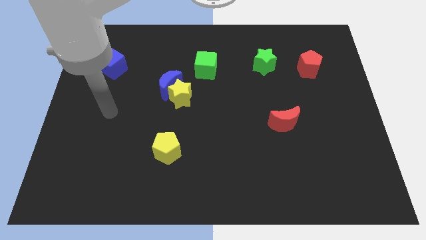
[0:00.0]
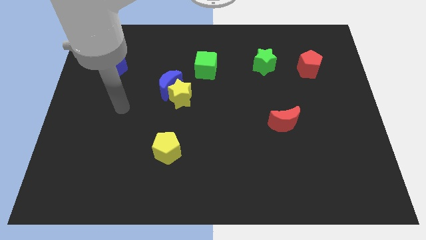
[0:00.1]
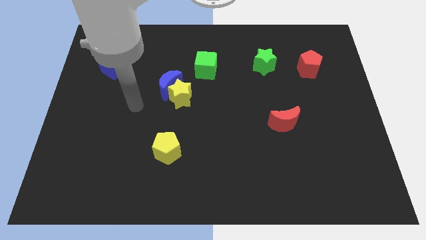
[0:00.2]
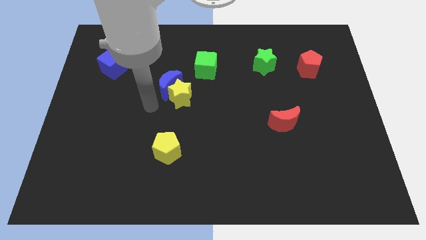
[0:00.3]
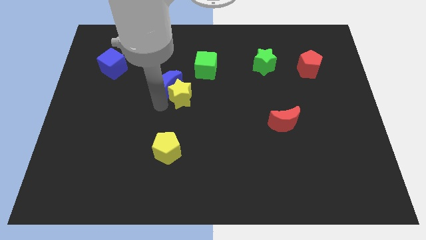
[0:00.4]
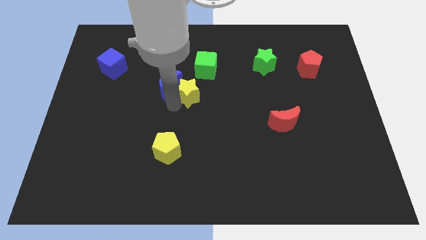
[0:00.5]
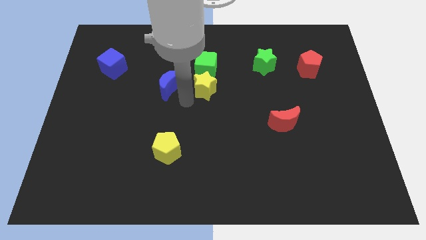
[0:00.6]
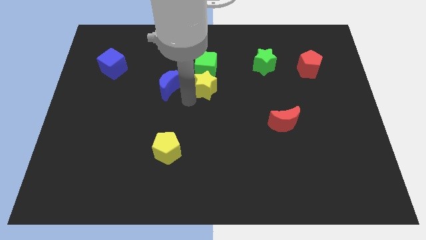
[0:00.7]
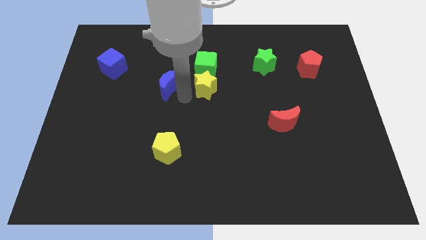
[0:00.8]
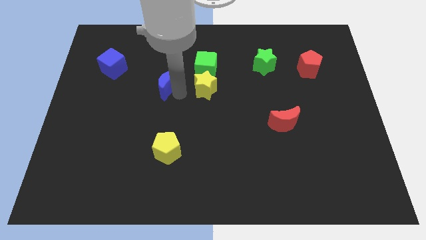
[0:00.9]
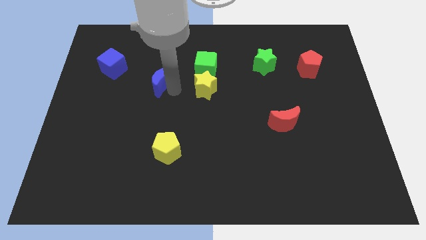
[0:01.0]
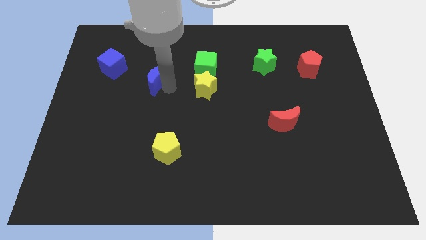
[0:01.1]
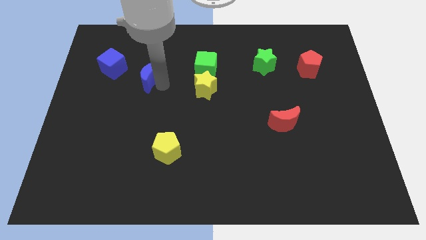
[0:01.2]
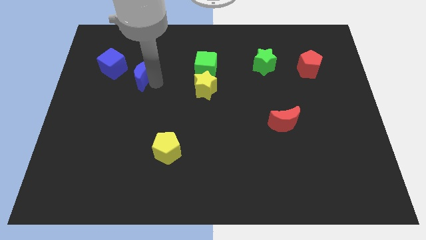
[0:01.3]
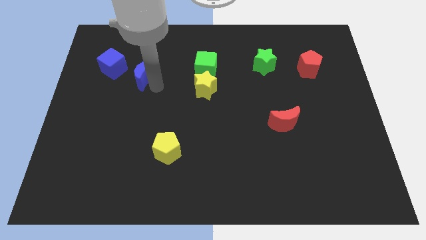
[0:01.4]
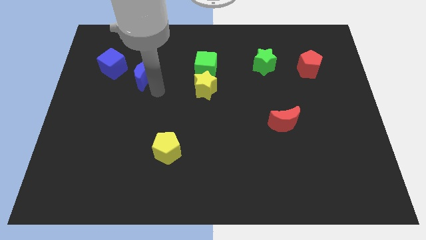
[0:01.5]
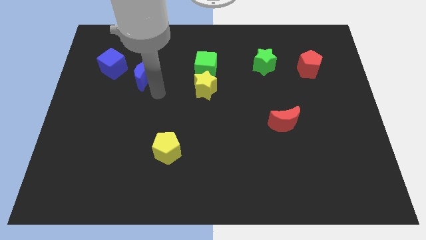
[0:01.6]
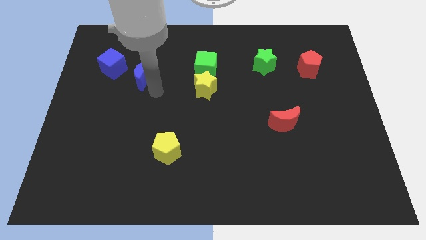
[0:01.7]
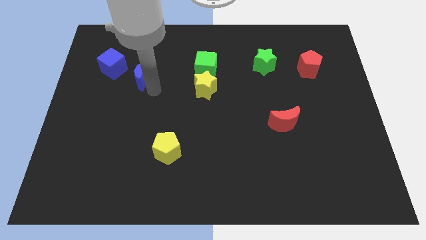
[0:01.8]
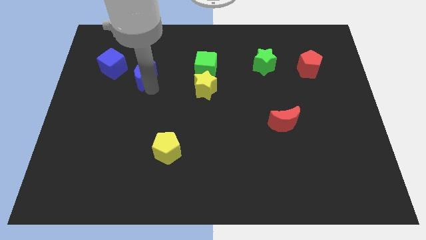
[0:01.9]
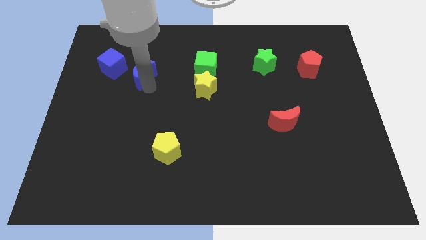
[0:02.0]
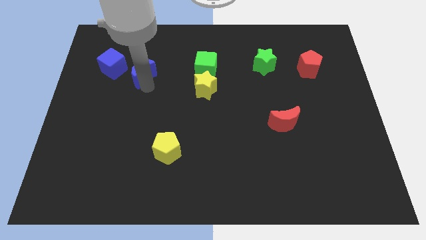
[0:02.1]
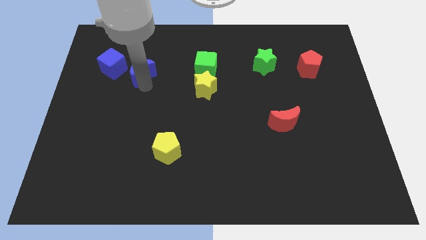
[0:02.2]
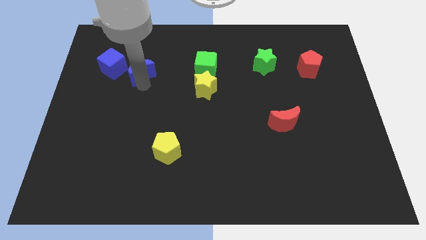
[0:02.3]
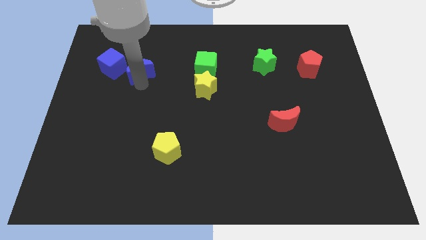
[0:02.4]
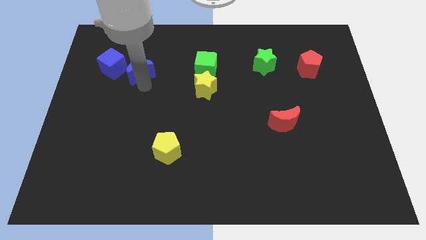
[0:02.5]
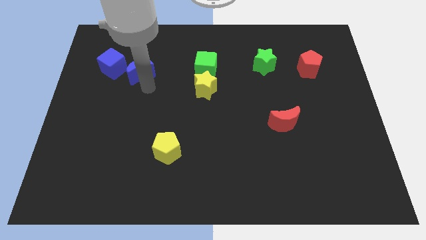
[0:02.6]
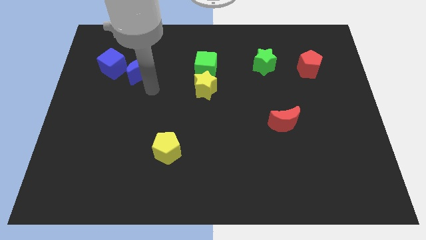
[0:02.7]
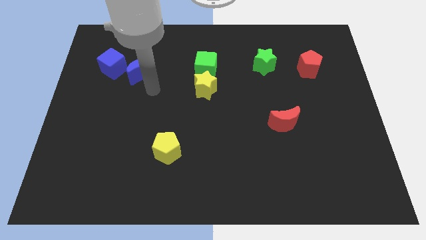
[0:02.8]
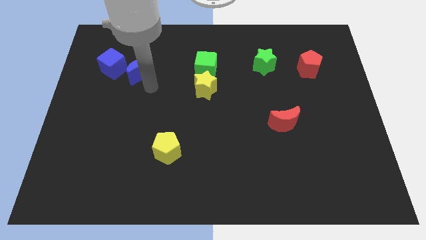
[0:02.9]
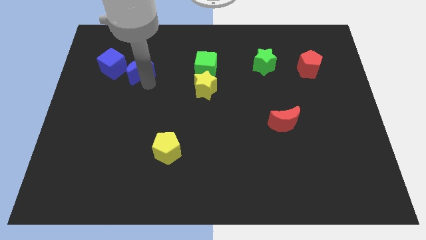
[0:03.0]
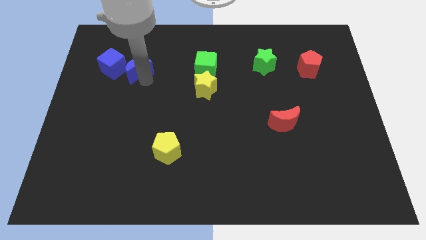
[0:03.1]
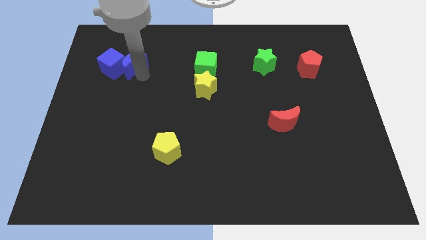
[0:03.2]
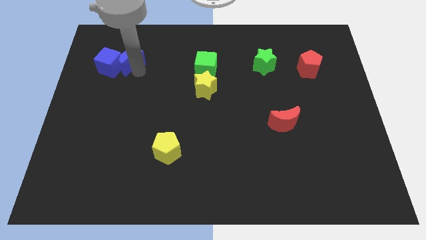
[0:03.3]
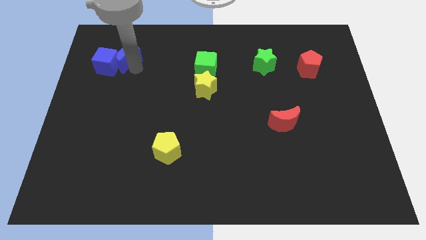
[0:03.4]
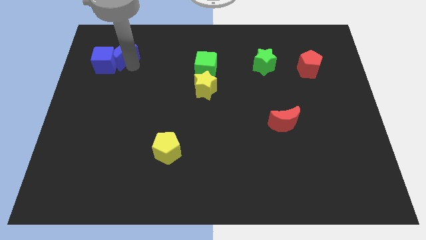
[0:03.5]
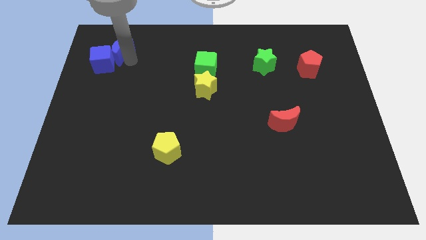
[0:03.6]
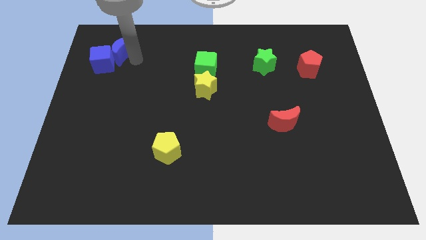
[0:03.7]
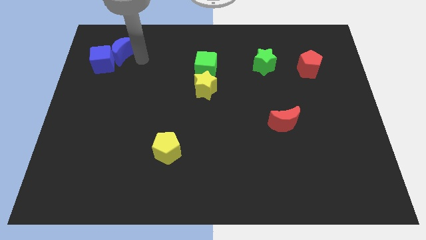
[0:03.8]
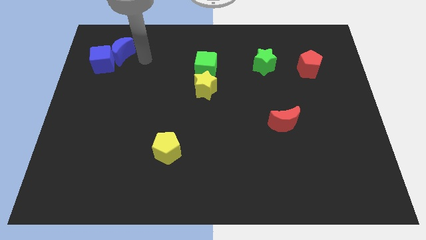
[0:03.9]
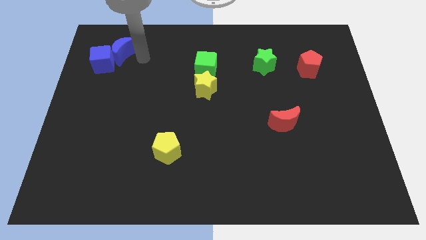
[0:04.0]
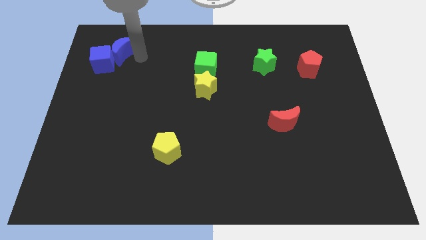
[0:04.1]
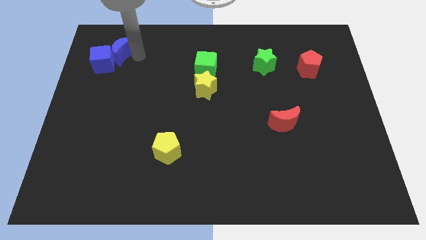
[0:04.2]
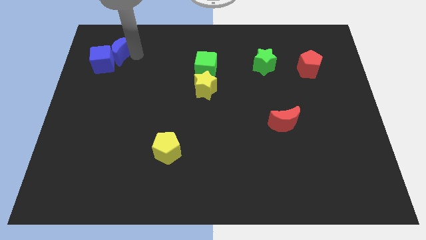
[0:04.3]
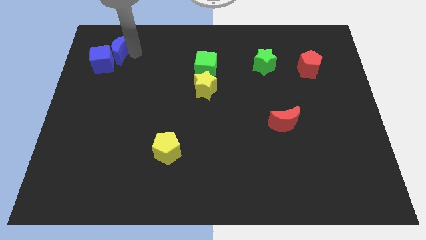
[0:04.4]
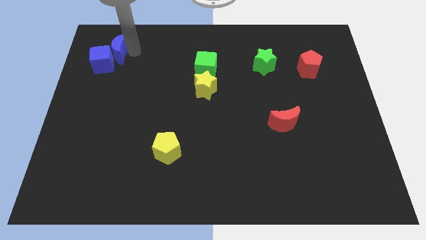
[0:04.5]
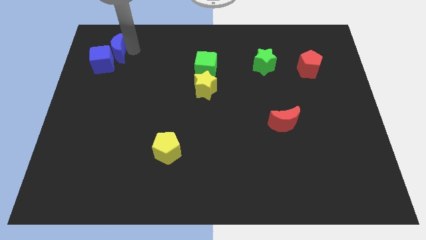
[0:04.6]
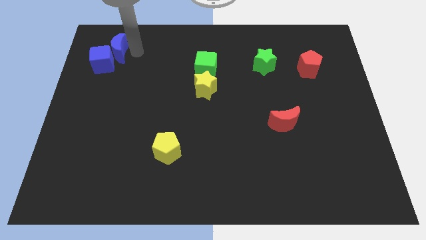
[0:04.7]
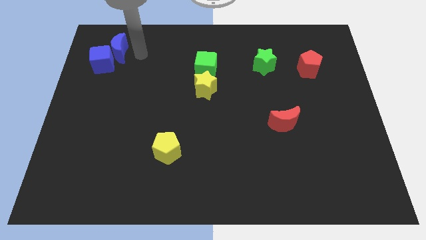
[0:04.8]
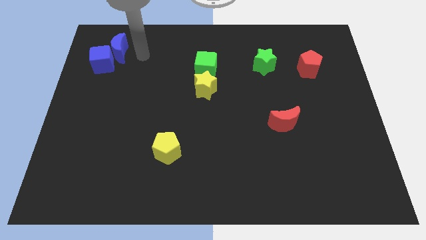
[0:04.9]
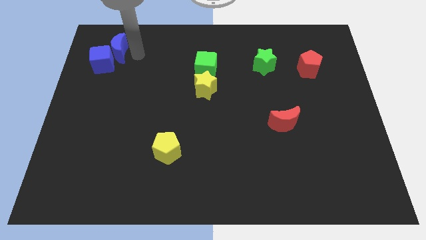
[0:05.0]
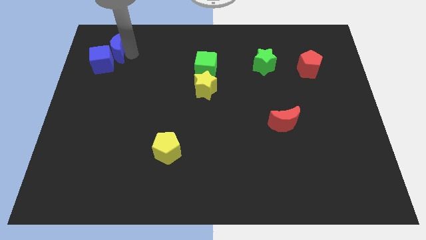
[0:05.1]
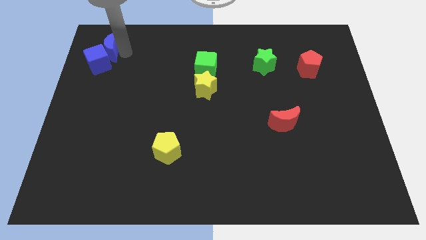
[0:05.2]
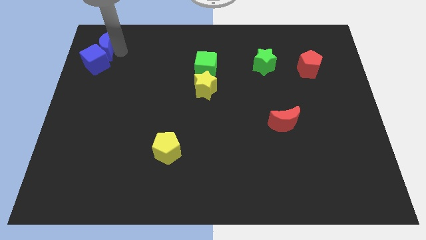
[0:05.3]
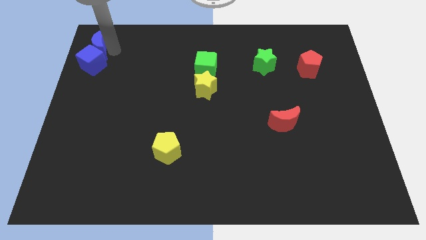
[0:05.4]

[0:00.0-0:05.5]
slide the blue moon to the top left corner

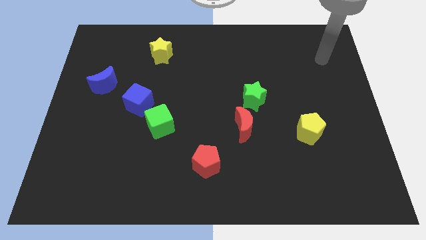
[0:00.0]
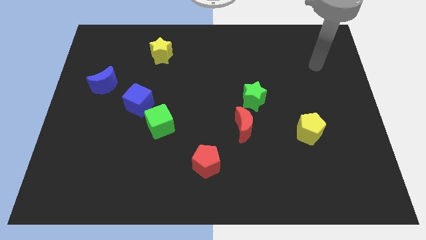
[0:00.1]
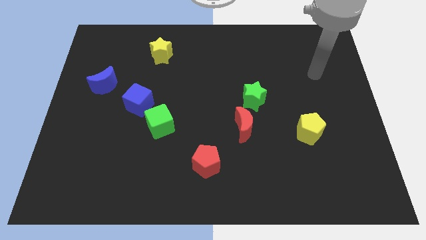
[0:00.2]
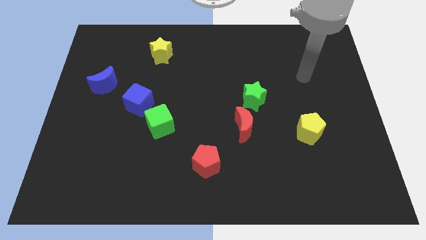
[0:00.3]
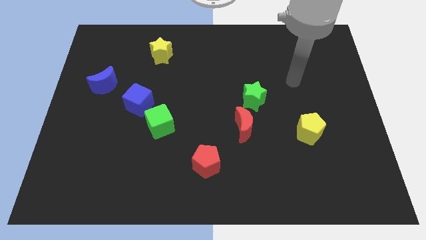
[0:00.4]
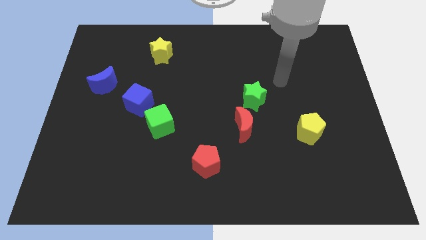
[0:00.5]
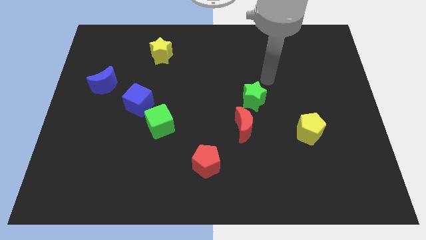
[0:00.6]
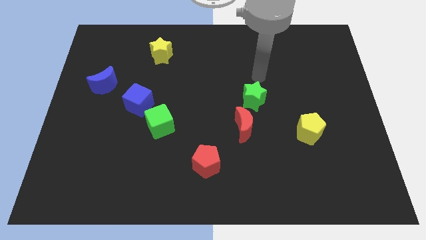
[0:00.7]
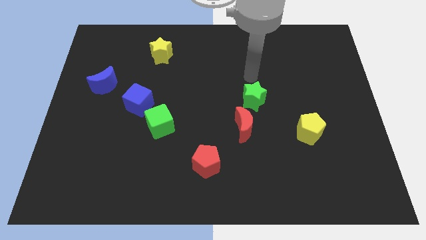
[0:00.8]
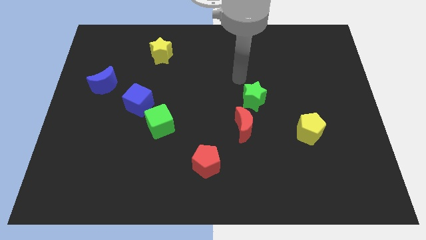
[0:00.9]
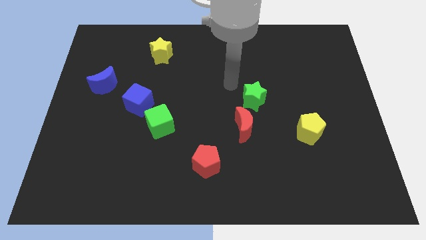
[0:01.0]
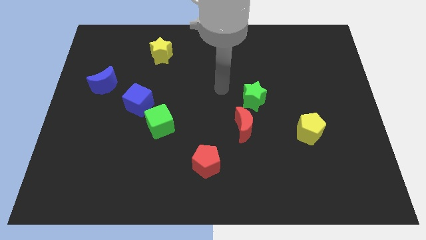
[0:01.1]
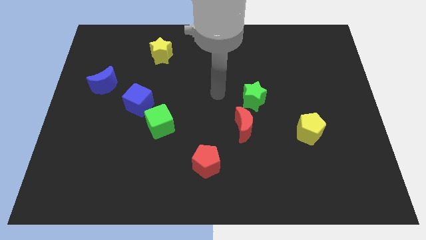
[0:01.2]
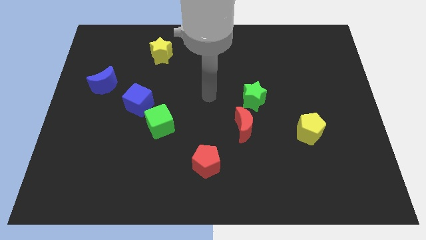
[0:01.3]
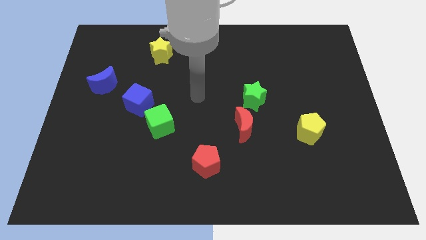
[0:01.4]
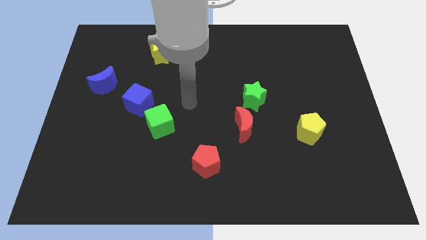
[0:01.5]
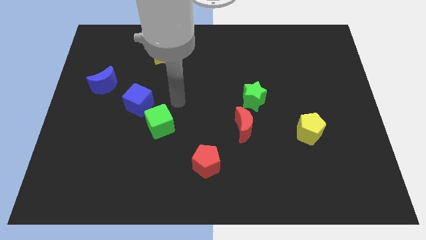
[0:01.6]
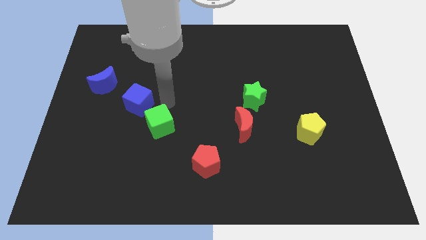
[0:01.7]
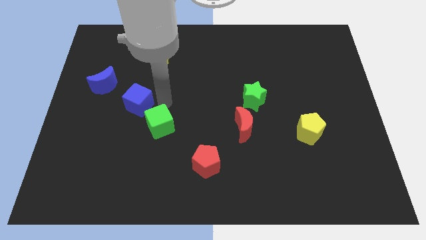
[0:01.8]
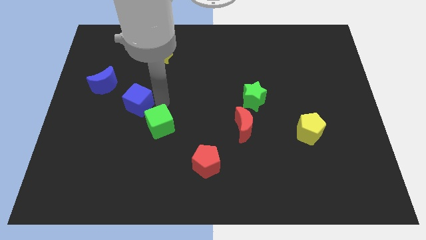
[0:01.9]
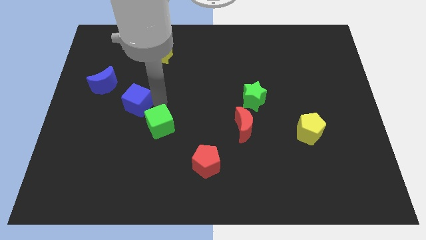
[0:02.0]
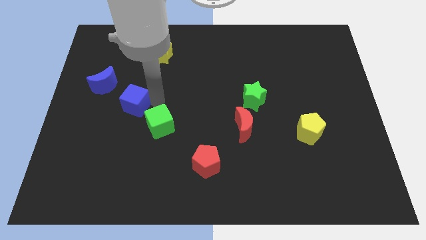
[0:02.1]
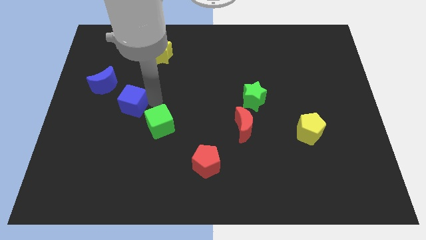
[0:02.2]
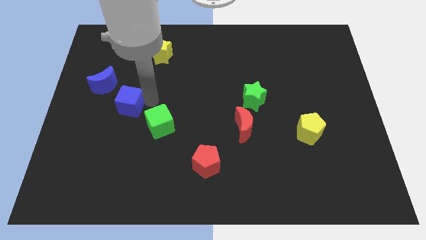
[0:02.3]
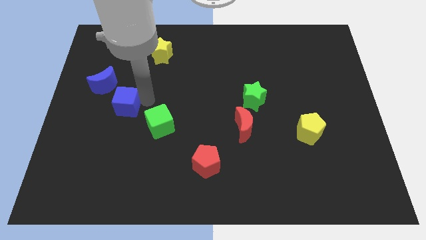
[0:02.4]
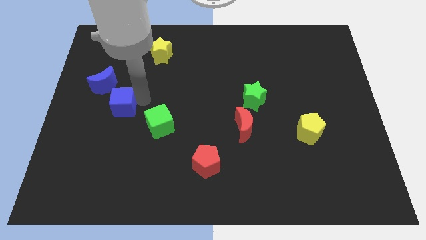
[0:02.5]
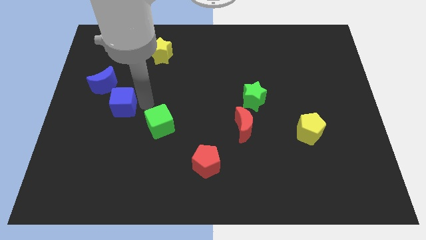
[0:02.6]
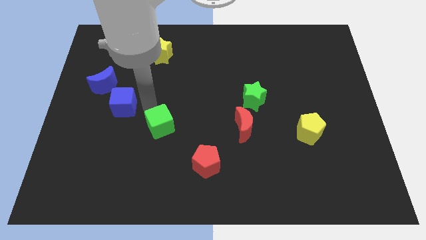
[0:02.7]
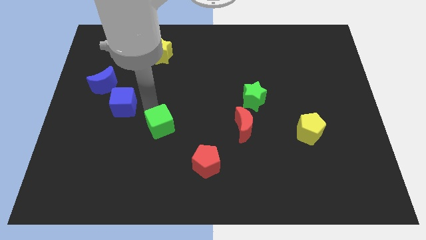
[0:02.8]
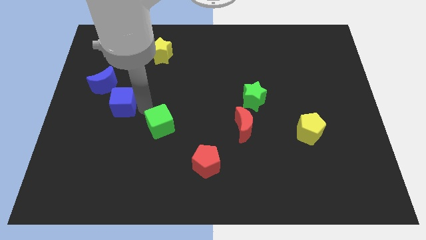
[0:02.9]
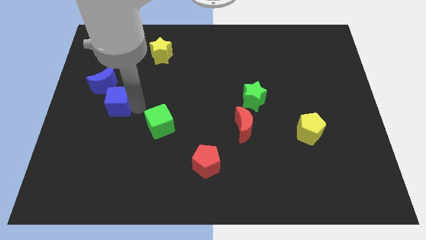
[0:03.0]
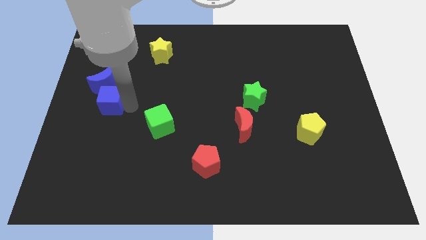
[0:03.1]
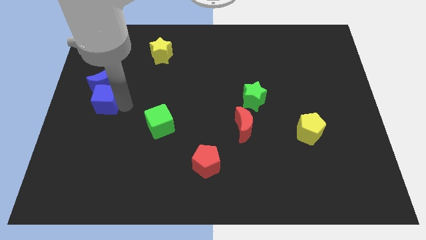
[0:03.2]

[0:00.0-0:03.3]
slide the blue cube to the center left
